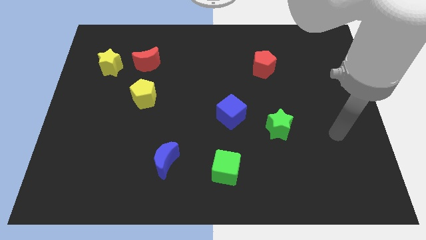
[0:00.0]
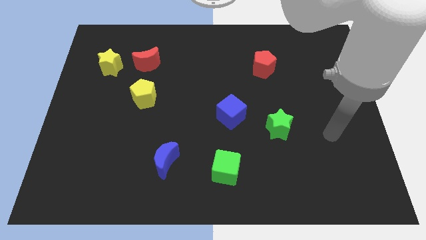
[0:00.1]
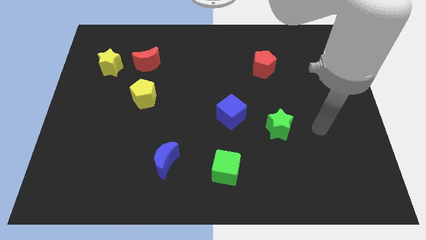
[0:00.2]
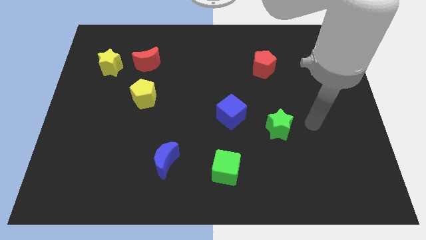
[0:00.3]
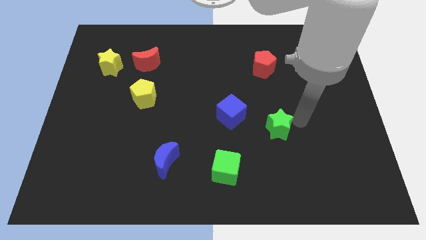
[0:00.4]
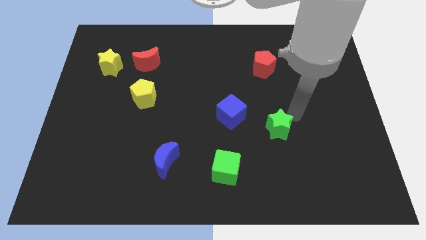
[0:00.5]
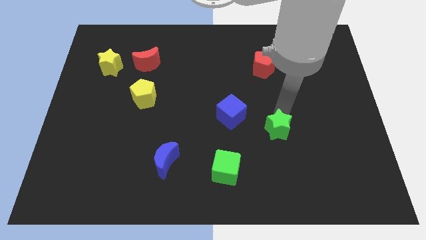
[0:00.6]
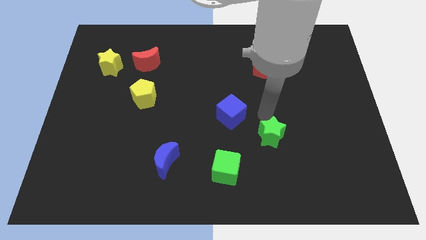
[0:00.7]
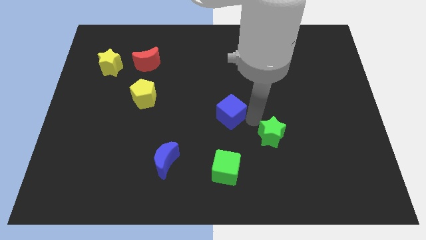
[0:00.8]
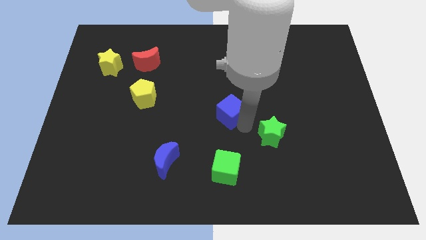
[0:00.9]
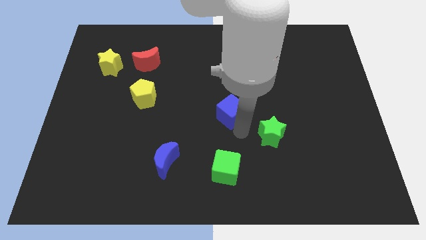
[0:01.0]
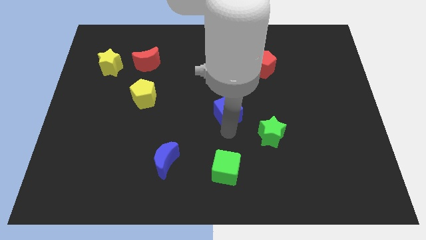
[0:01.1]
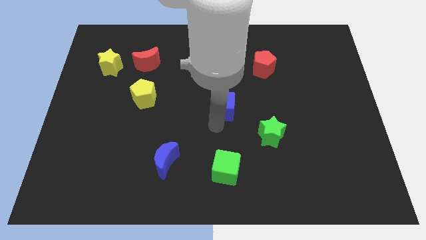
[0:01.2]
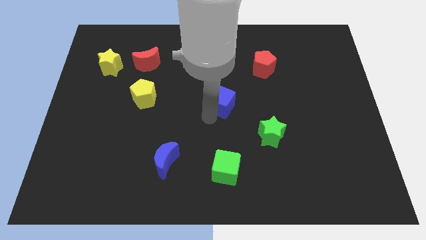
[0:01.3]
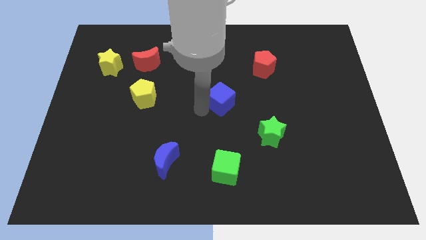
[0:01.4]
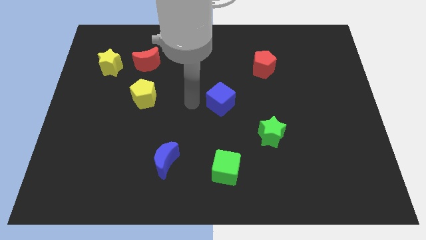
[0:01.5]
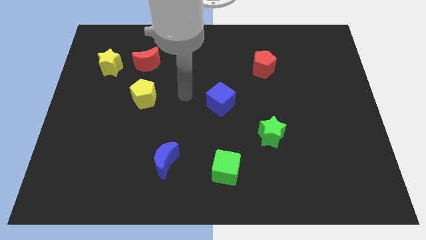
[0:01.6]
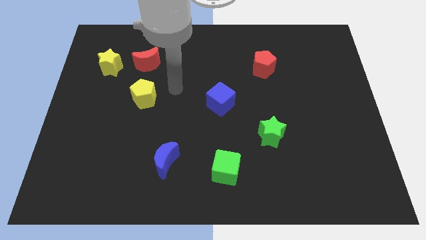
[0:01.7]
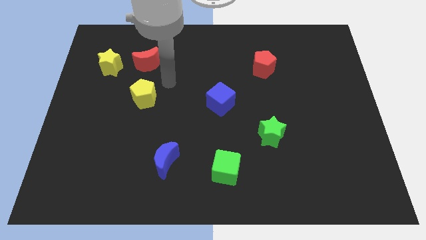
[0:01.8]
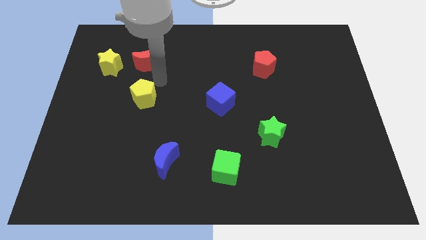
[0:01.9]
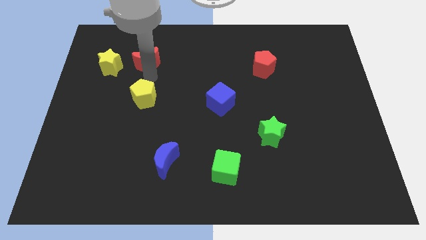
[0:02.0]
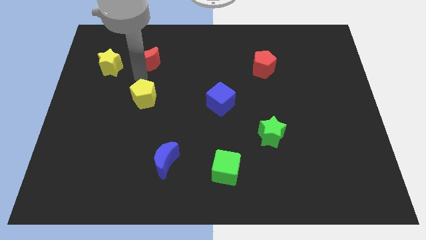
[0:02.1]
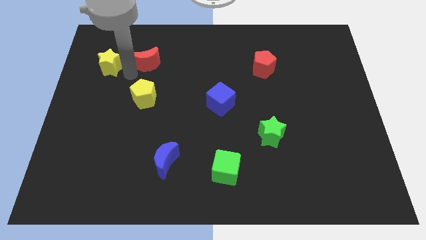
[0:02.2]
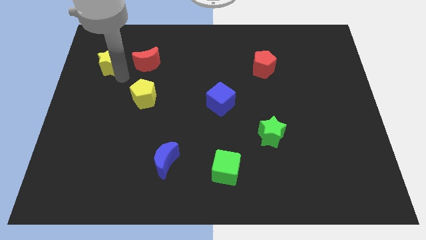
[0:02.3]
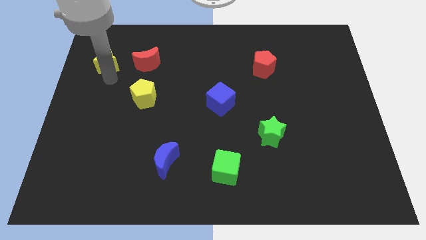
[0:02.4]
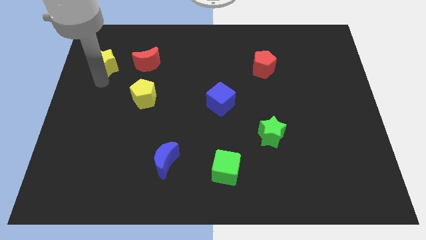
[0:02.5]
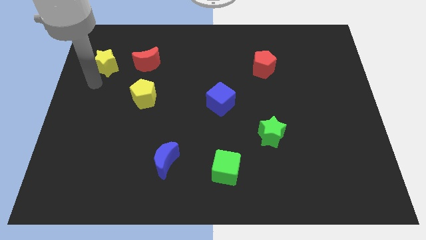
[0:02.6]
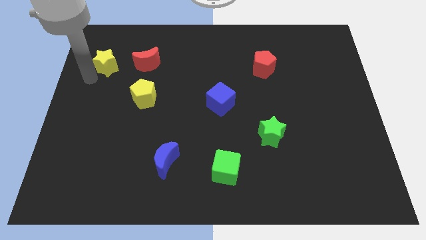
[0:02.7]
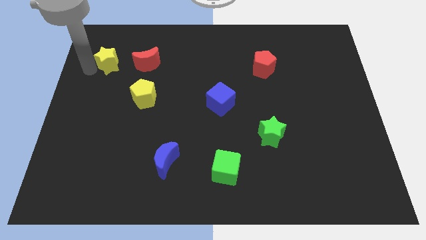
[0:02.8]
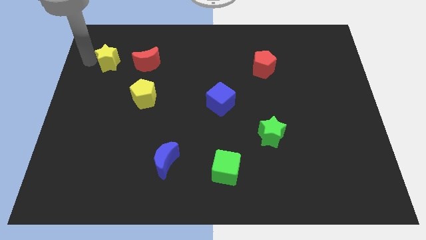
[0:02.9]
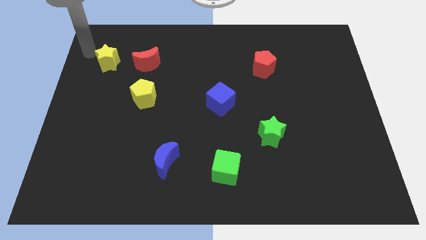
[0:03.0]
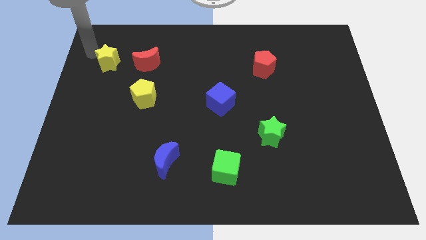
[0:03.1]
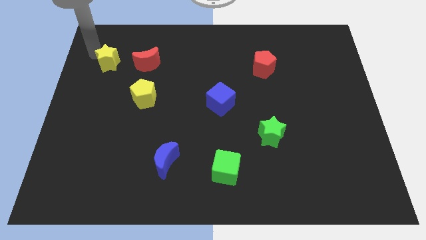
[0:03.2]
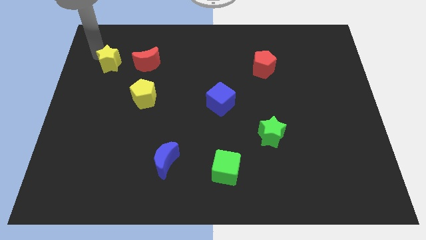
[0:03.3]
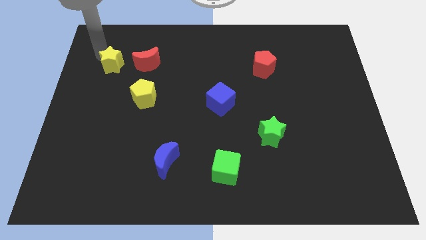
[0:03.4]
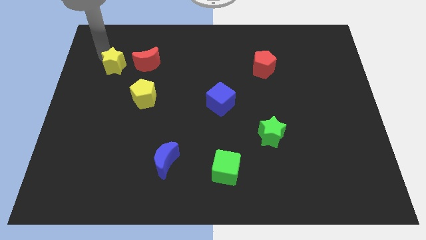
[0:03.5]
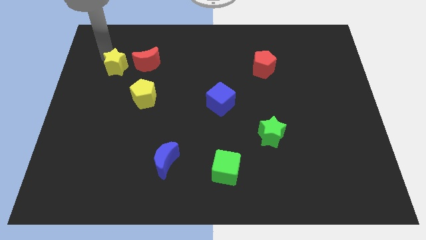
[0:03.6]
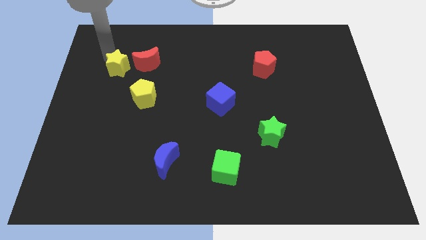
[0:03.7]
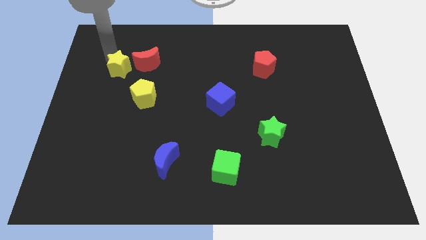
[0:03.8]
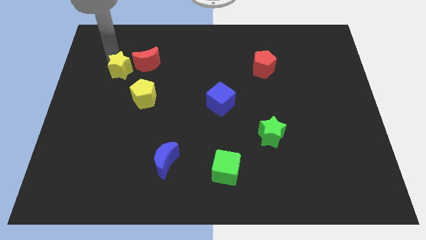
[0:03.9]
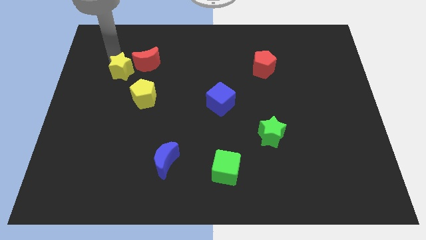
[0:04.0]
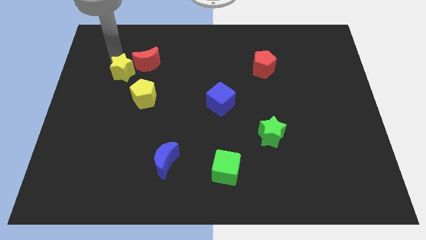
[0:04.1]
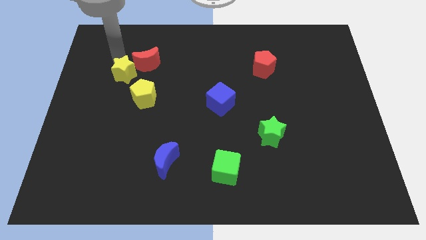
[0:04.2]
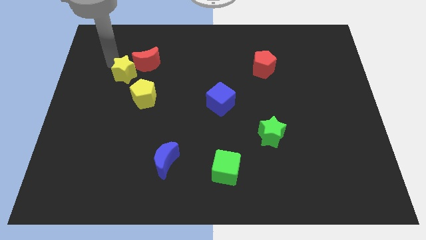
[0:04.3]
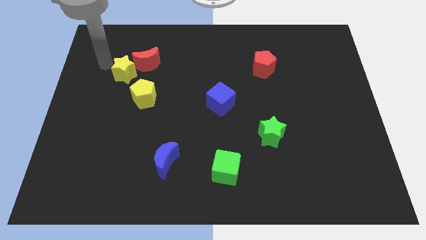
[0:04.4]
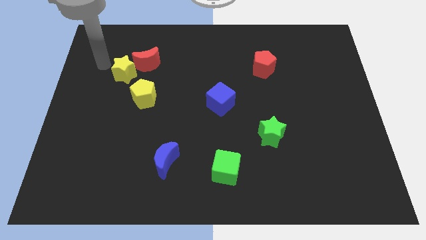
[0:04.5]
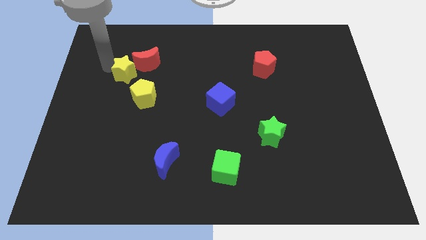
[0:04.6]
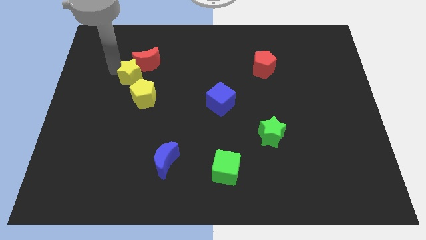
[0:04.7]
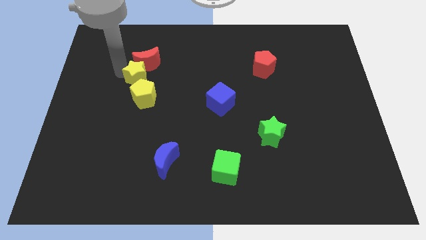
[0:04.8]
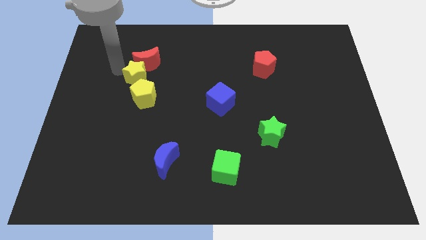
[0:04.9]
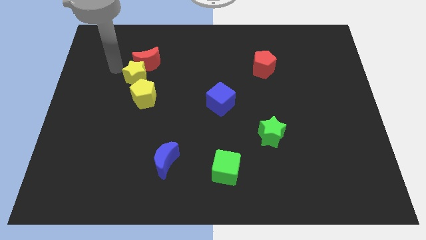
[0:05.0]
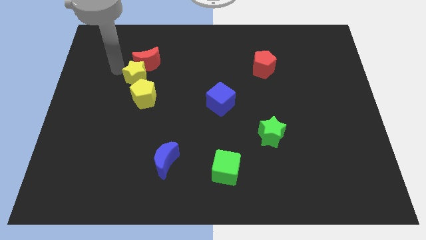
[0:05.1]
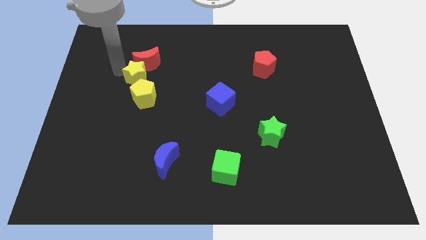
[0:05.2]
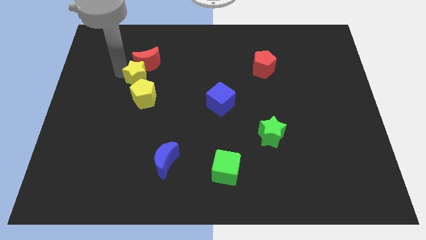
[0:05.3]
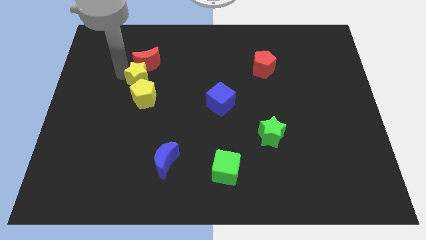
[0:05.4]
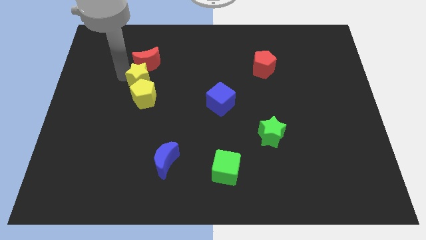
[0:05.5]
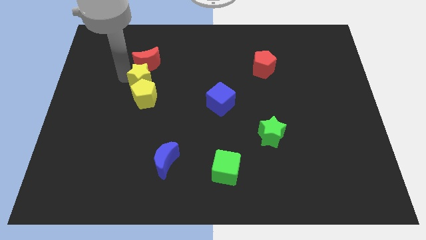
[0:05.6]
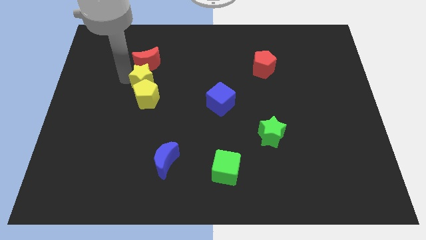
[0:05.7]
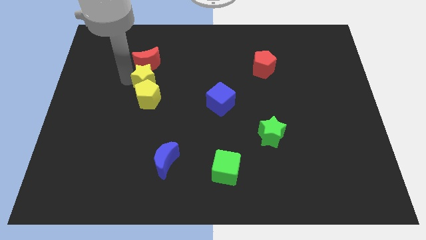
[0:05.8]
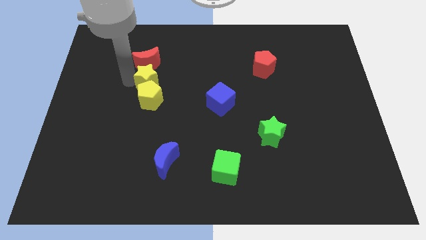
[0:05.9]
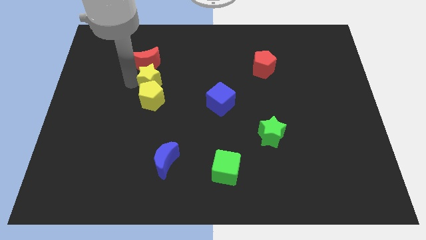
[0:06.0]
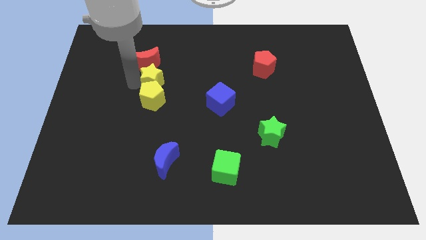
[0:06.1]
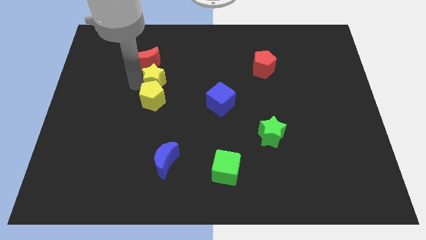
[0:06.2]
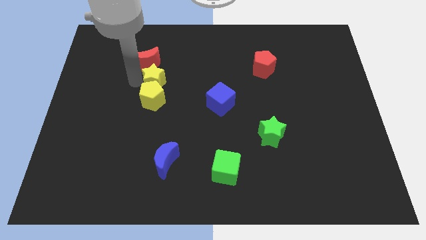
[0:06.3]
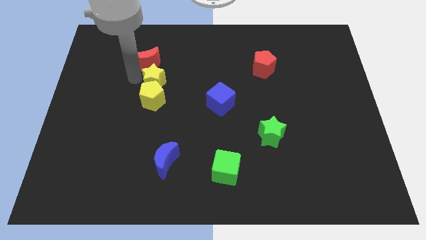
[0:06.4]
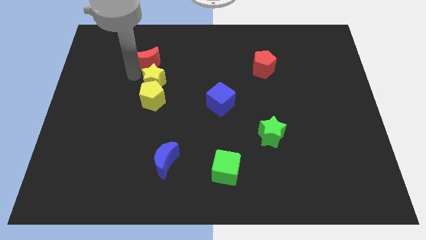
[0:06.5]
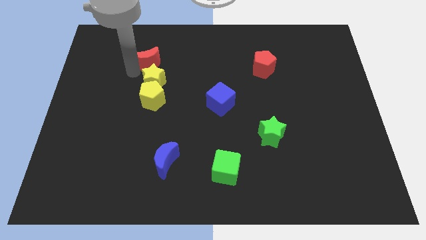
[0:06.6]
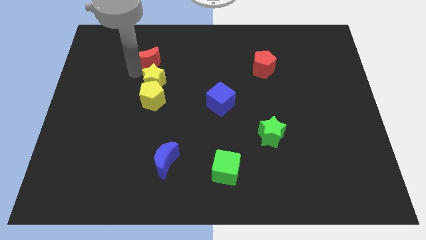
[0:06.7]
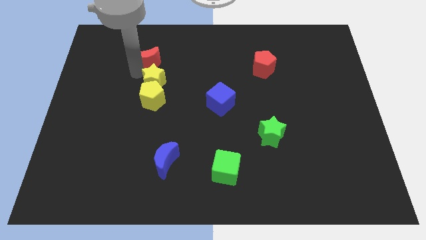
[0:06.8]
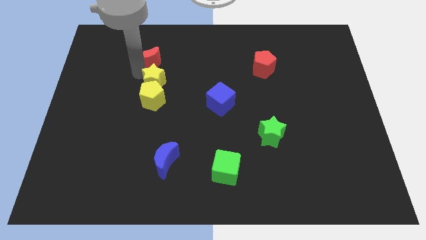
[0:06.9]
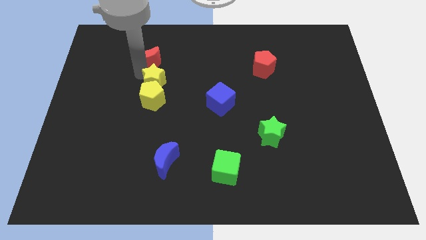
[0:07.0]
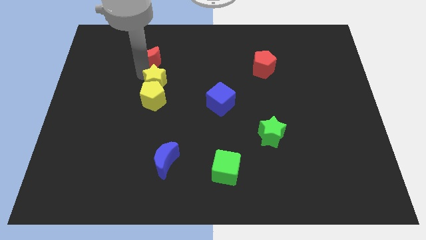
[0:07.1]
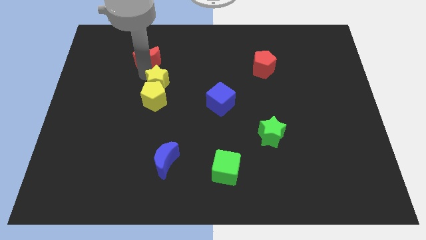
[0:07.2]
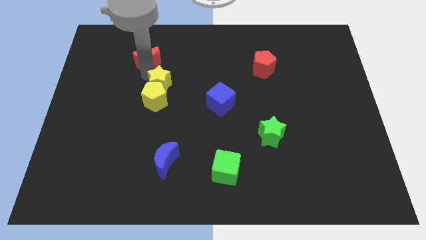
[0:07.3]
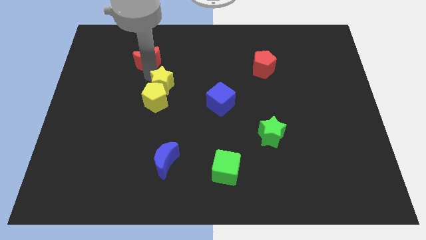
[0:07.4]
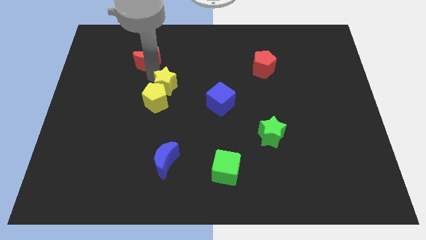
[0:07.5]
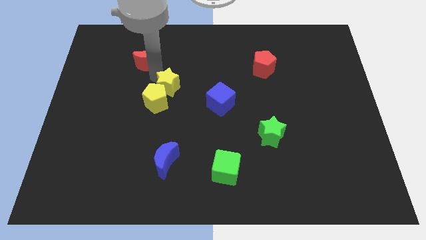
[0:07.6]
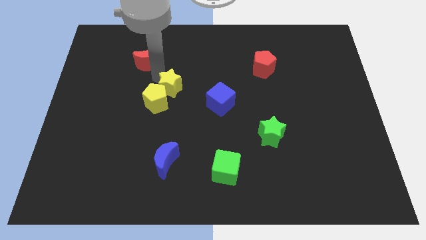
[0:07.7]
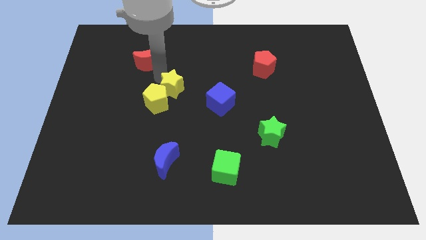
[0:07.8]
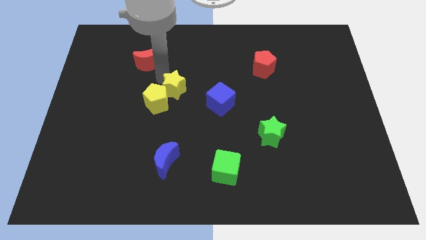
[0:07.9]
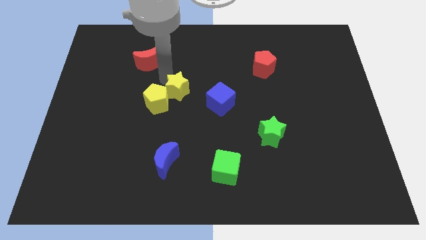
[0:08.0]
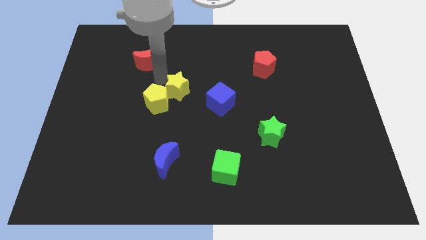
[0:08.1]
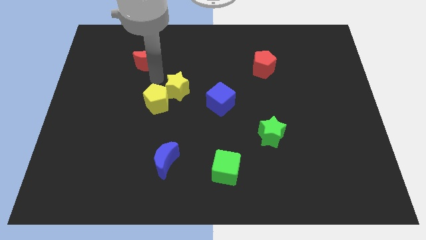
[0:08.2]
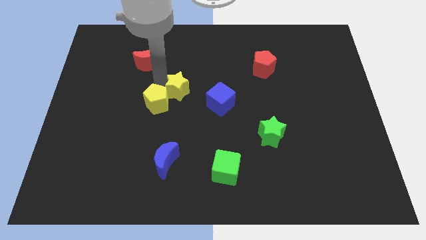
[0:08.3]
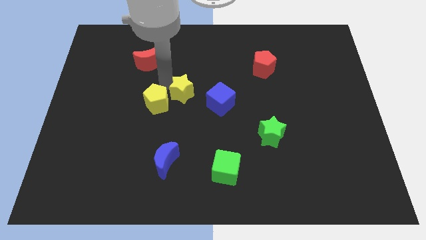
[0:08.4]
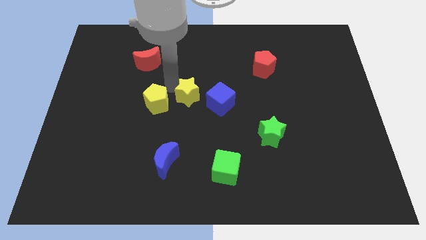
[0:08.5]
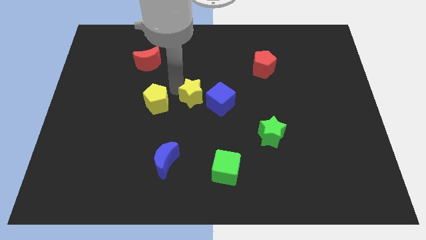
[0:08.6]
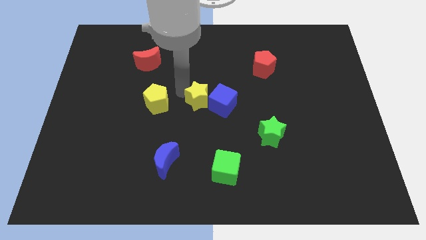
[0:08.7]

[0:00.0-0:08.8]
slide the yellow star close to the blue cube
